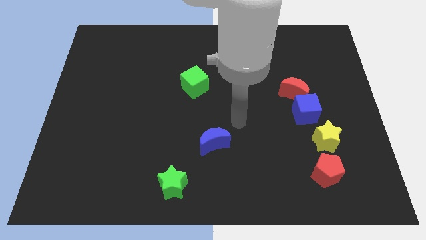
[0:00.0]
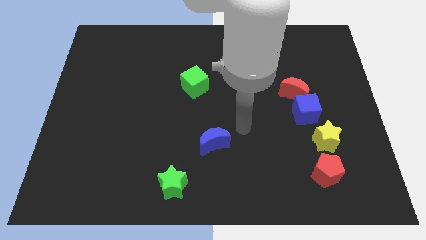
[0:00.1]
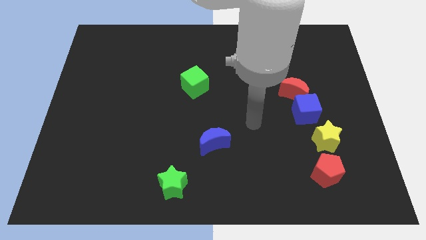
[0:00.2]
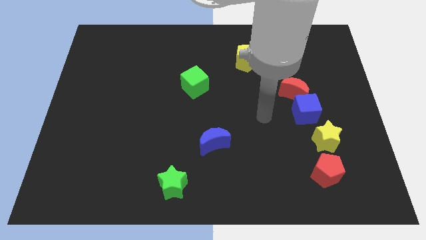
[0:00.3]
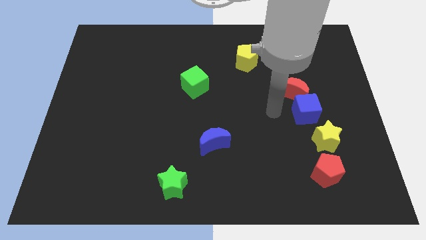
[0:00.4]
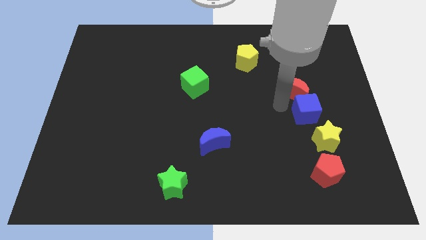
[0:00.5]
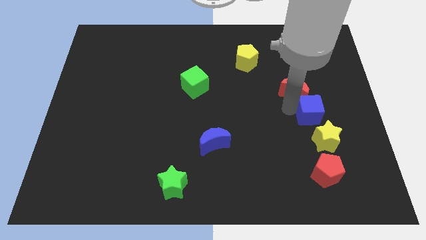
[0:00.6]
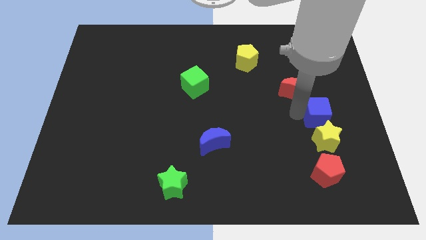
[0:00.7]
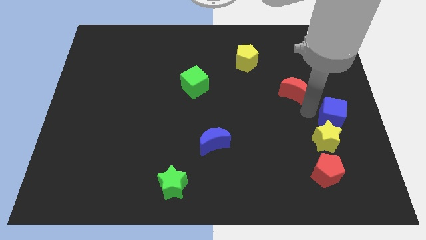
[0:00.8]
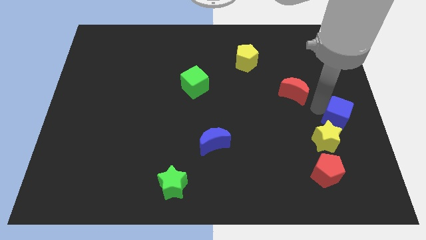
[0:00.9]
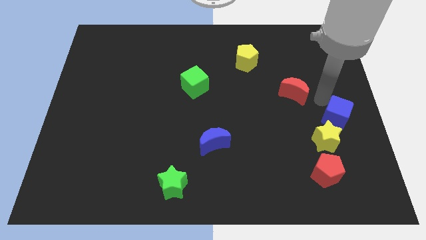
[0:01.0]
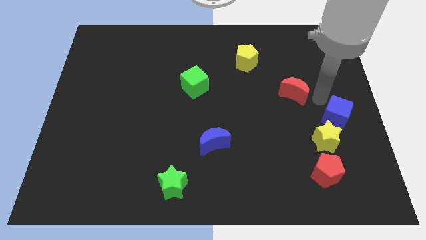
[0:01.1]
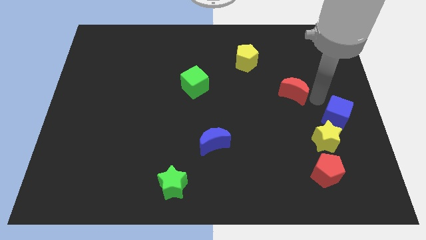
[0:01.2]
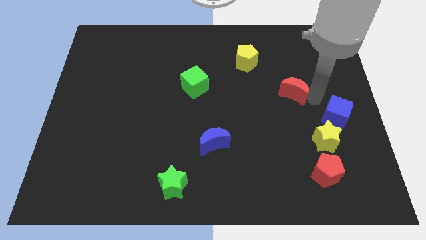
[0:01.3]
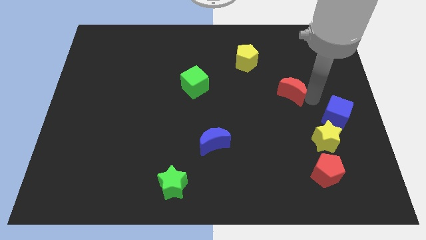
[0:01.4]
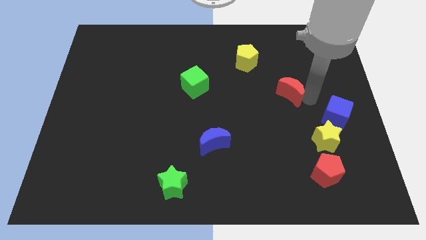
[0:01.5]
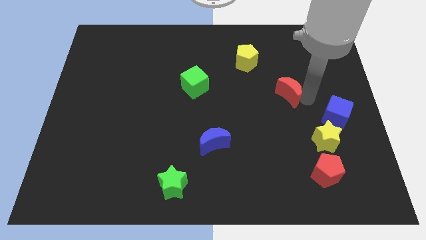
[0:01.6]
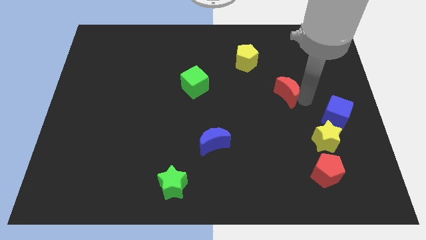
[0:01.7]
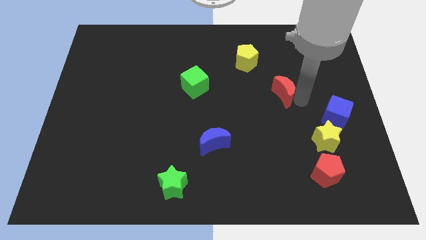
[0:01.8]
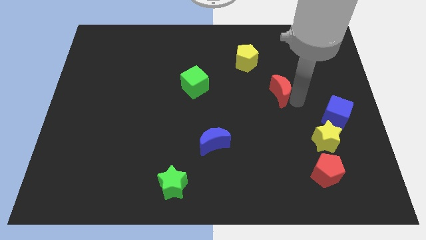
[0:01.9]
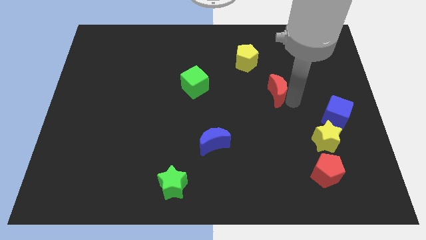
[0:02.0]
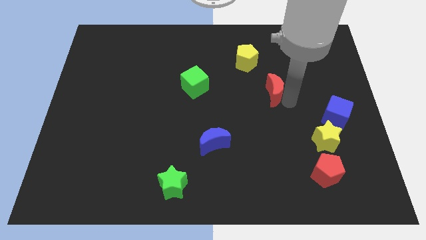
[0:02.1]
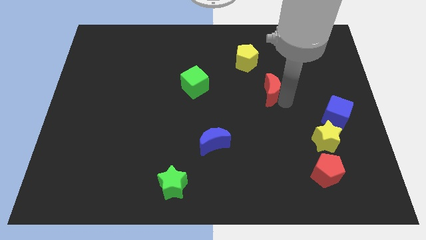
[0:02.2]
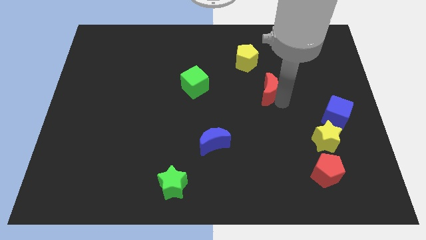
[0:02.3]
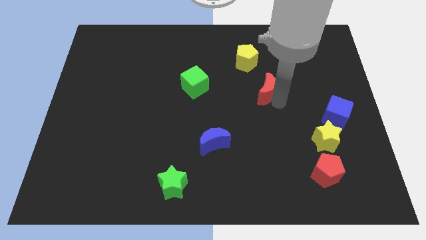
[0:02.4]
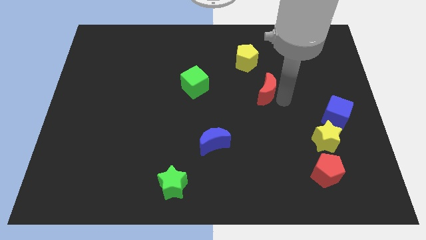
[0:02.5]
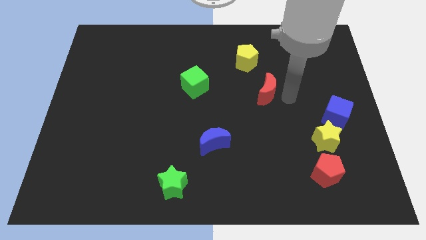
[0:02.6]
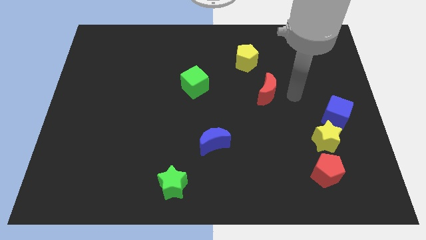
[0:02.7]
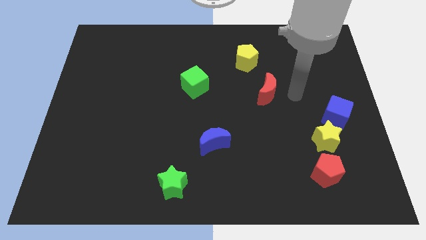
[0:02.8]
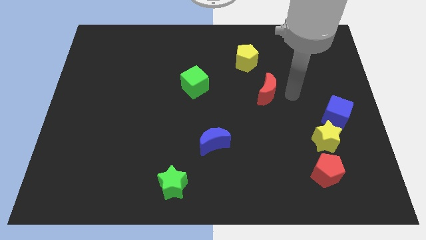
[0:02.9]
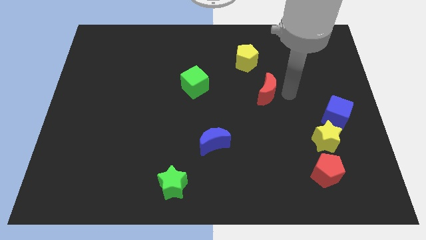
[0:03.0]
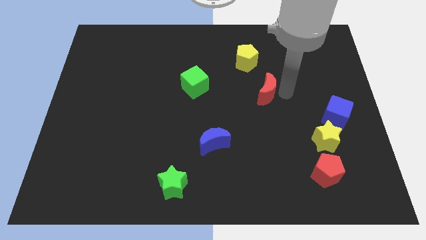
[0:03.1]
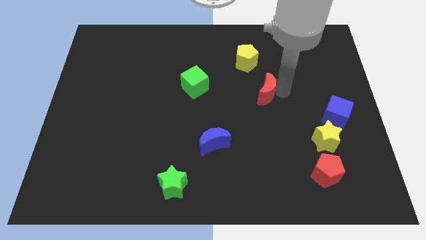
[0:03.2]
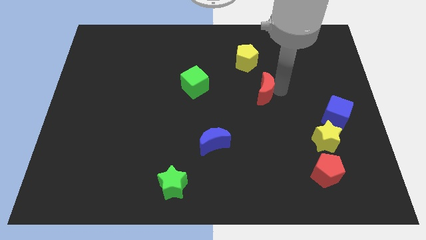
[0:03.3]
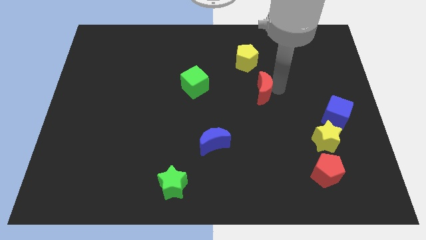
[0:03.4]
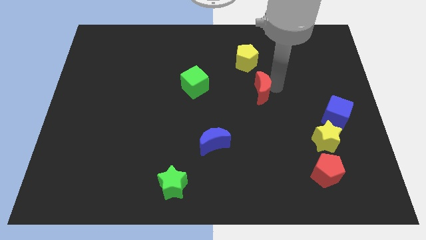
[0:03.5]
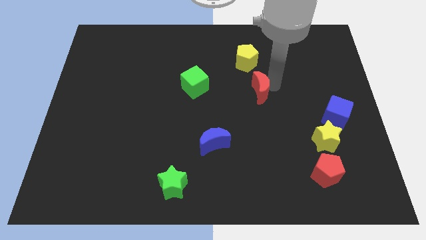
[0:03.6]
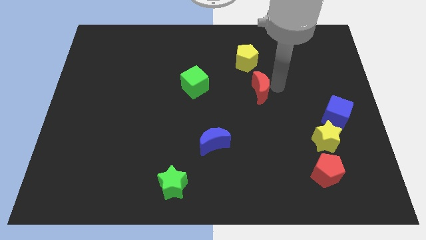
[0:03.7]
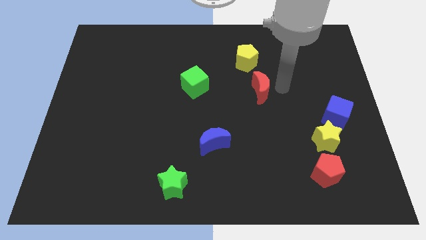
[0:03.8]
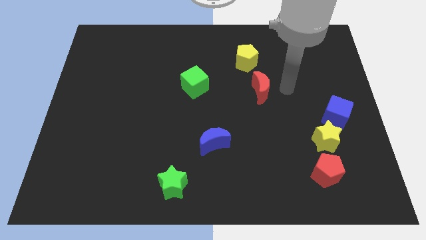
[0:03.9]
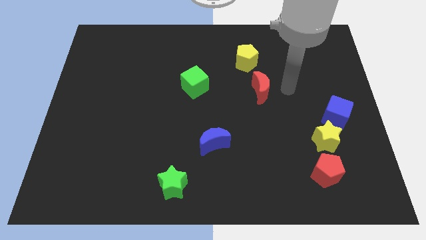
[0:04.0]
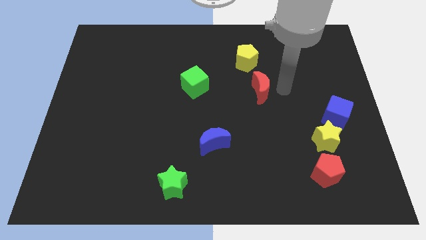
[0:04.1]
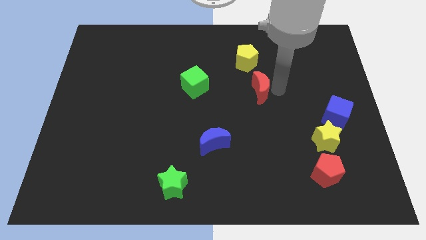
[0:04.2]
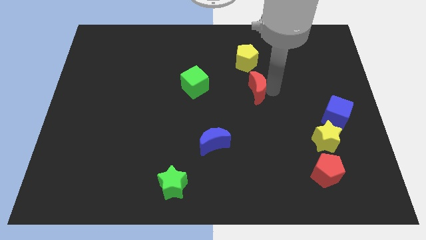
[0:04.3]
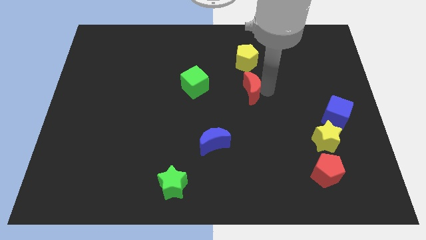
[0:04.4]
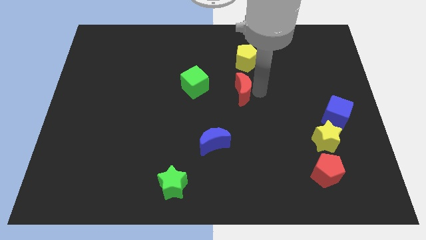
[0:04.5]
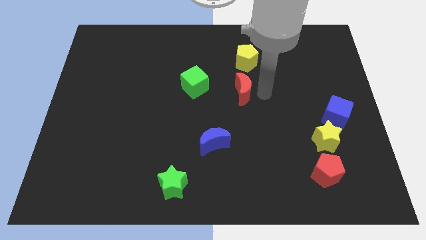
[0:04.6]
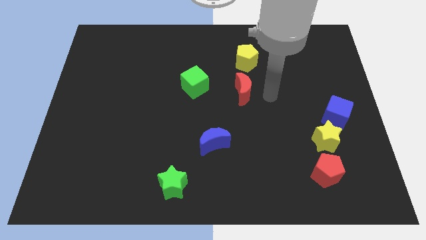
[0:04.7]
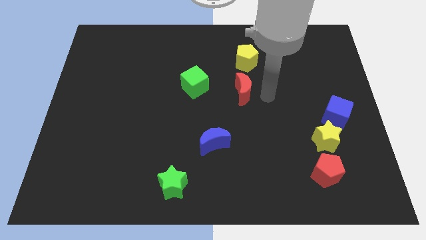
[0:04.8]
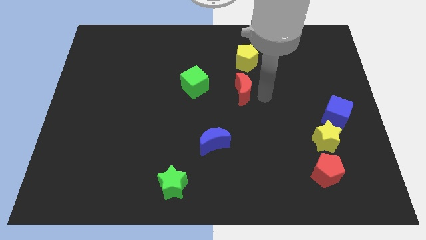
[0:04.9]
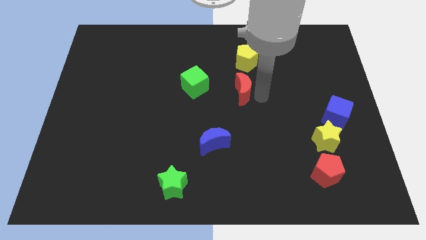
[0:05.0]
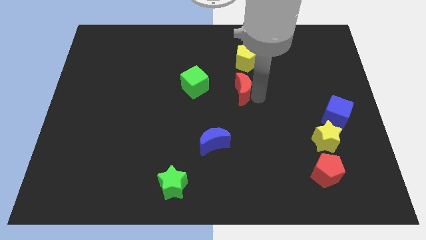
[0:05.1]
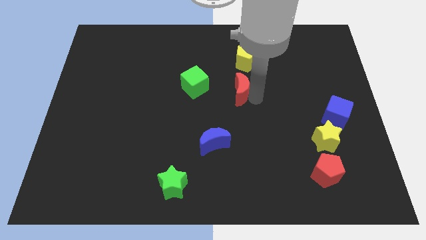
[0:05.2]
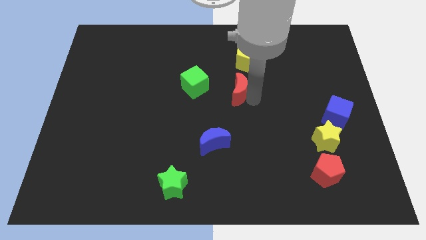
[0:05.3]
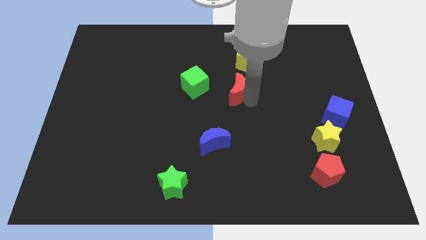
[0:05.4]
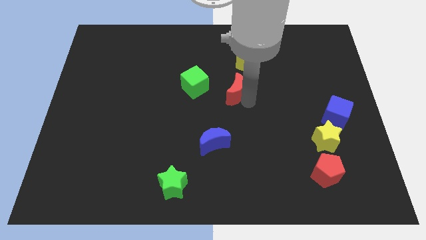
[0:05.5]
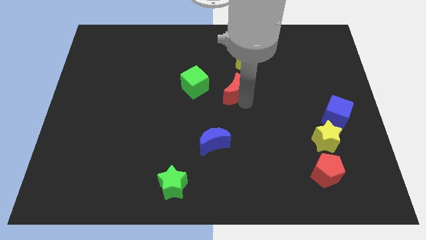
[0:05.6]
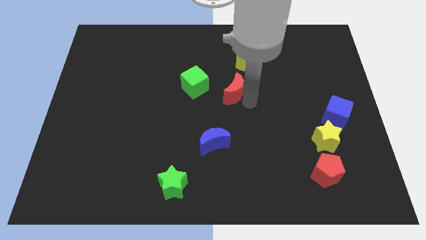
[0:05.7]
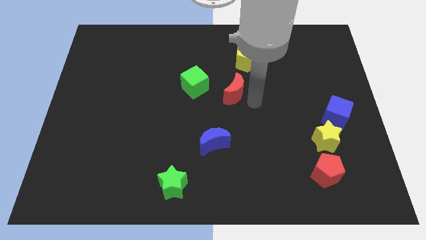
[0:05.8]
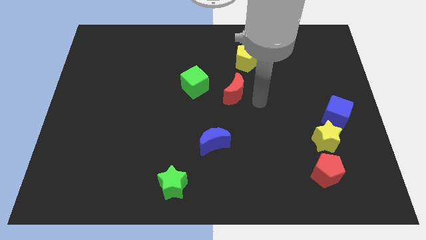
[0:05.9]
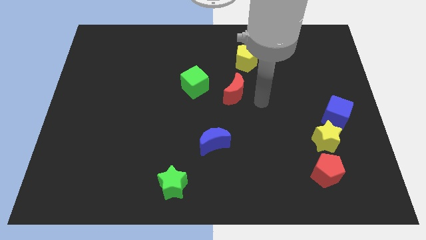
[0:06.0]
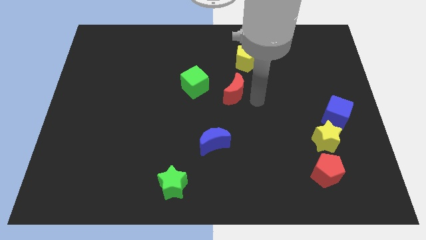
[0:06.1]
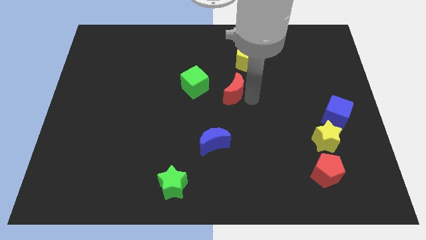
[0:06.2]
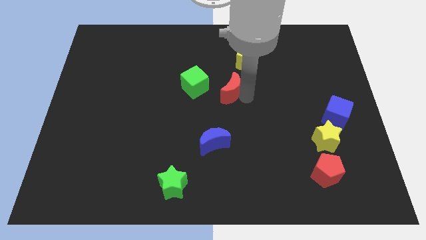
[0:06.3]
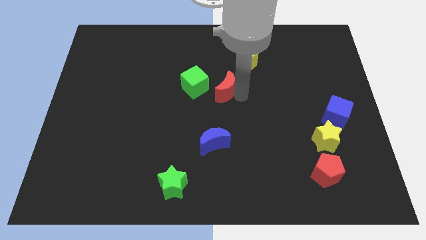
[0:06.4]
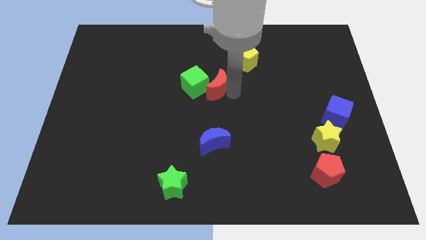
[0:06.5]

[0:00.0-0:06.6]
push the red moon close to the green cube

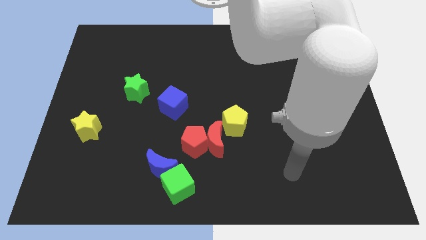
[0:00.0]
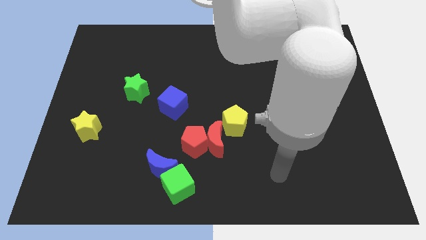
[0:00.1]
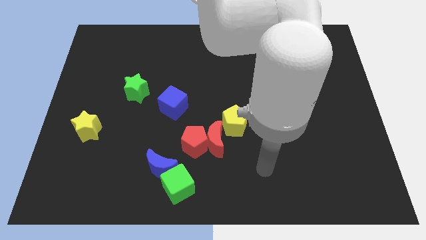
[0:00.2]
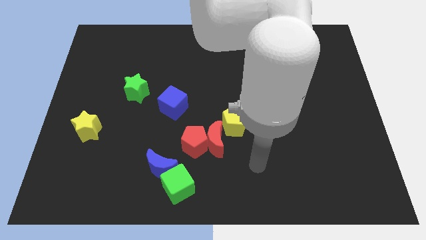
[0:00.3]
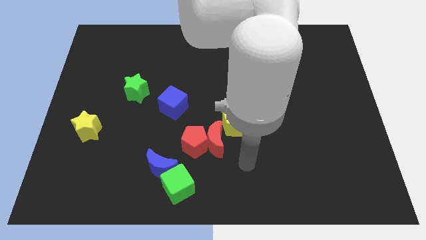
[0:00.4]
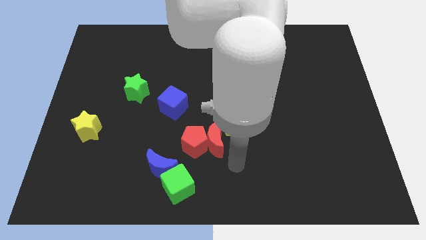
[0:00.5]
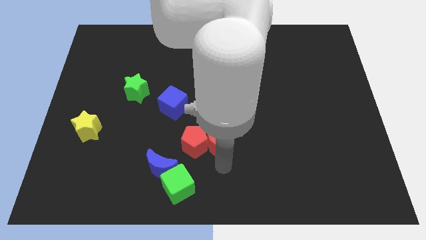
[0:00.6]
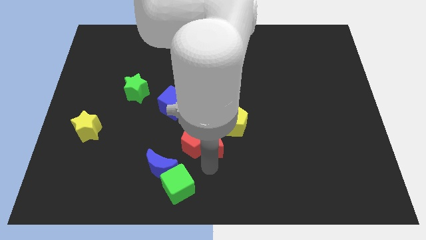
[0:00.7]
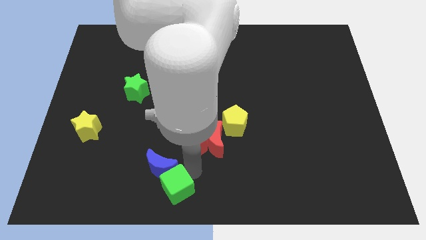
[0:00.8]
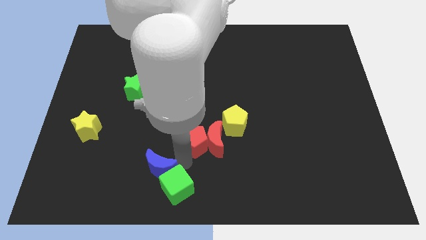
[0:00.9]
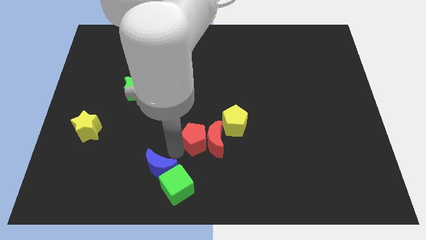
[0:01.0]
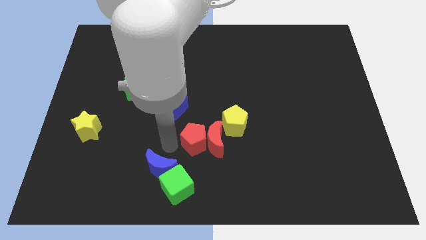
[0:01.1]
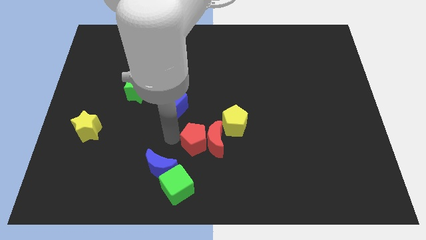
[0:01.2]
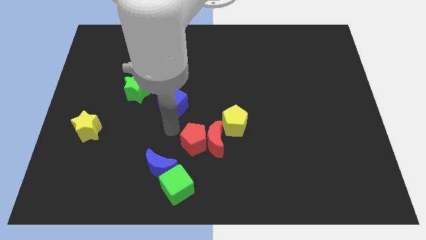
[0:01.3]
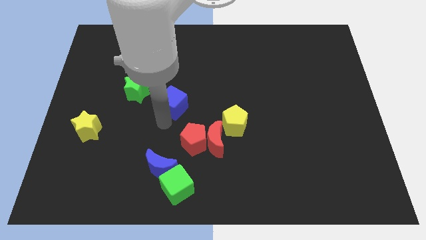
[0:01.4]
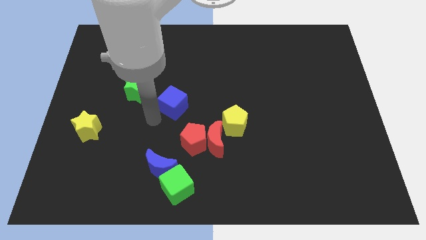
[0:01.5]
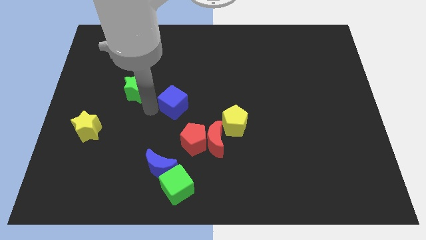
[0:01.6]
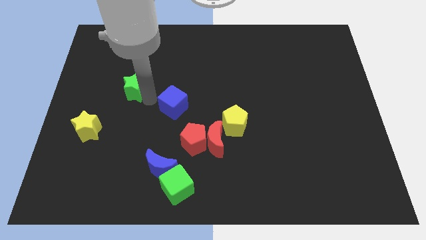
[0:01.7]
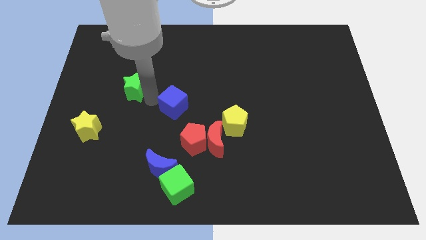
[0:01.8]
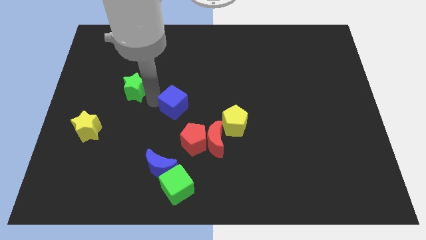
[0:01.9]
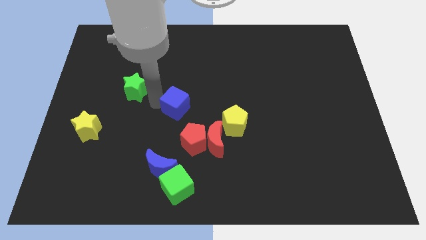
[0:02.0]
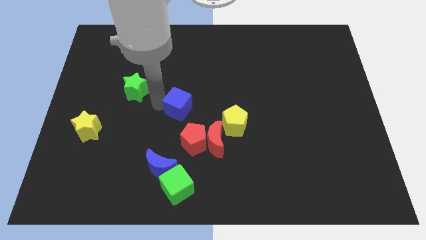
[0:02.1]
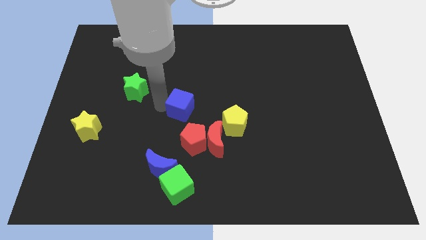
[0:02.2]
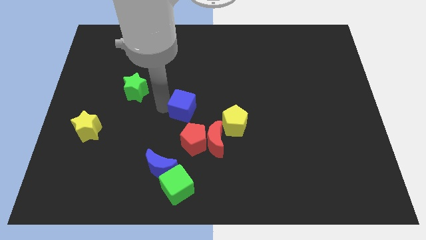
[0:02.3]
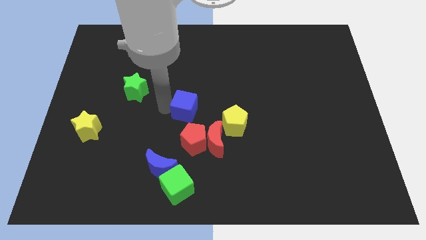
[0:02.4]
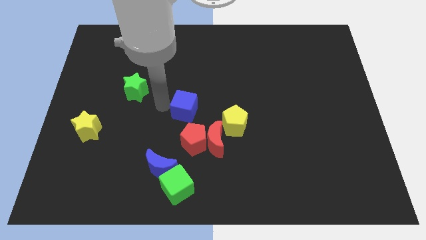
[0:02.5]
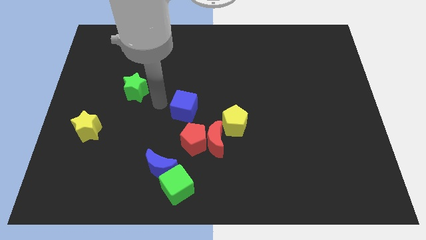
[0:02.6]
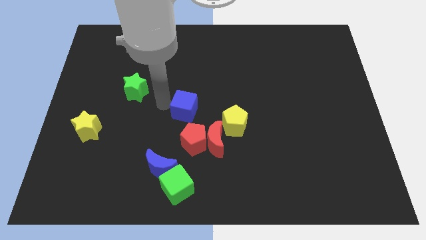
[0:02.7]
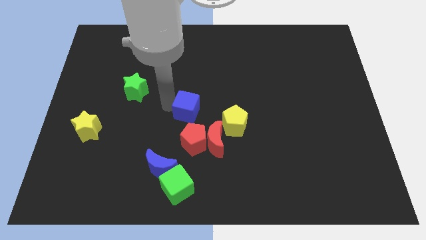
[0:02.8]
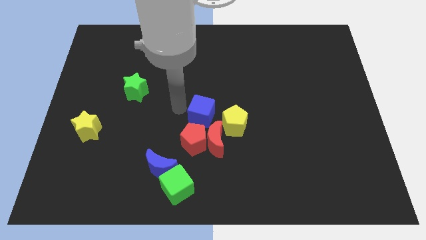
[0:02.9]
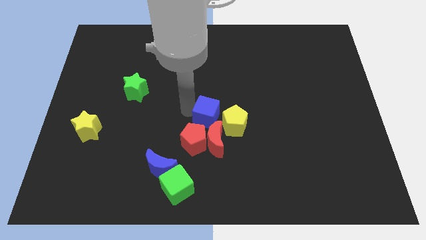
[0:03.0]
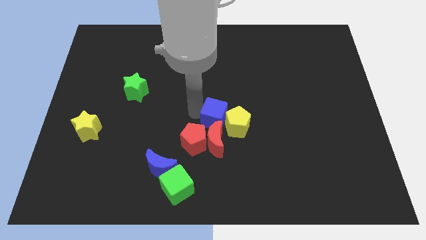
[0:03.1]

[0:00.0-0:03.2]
put the blue cube to the yellow pentagon
